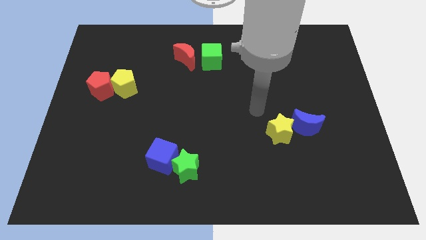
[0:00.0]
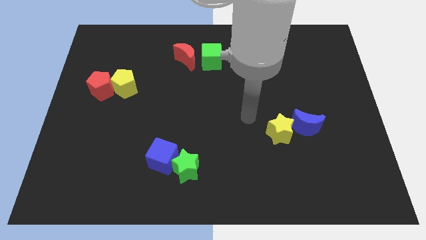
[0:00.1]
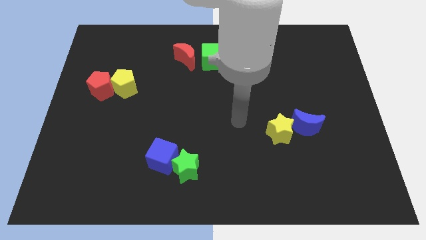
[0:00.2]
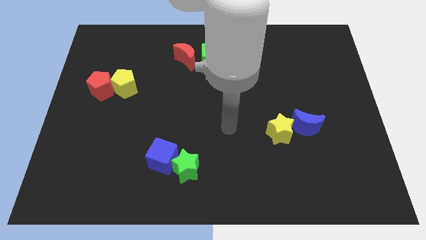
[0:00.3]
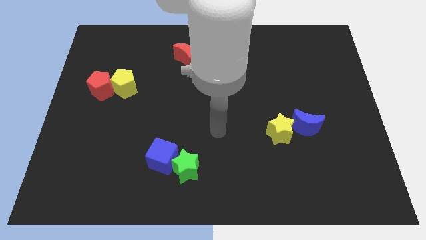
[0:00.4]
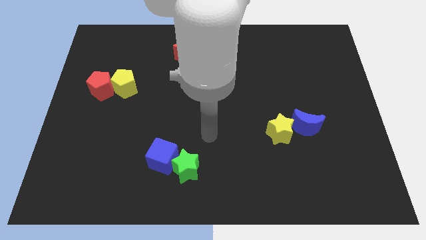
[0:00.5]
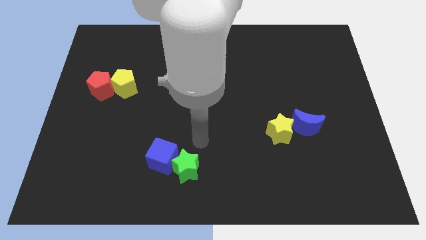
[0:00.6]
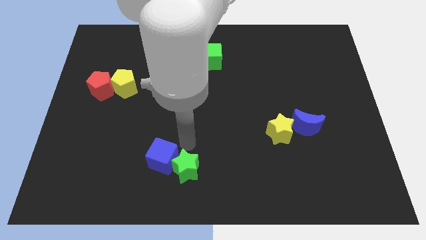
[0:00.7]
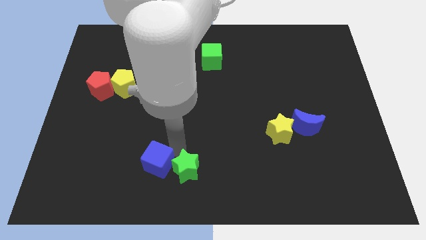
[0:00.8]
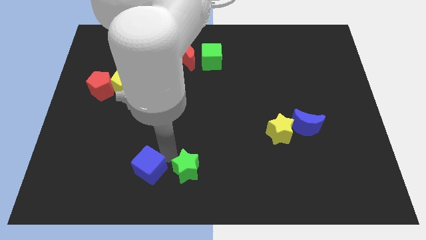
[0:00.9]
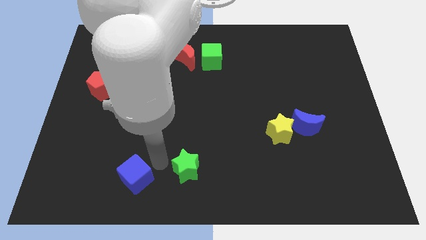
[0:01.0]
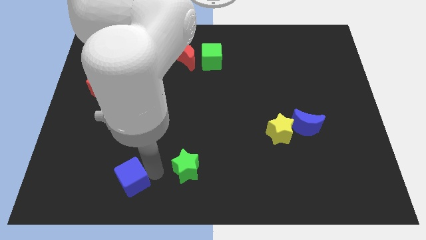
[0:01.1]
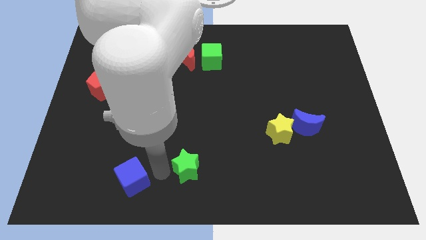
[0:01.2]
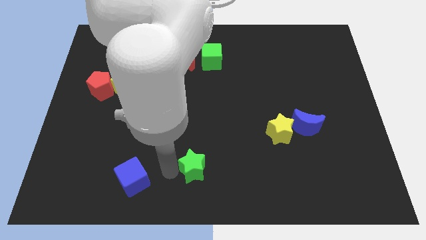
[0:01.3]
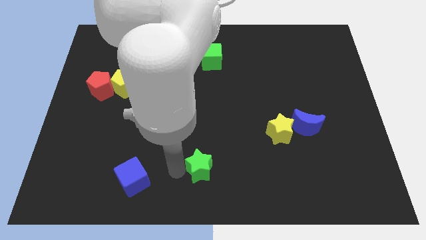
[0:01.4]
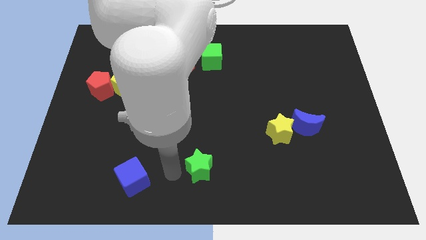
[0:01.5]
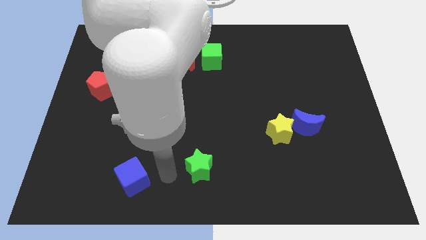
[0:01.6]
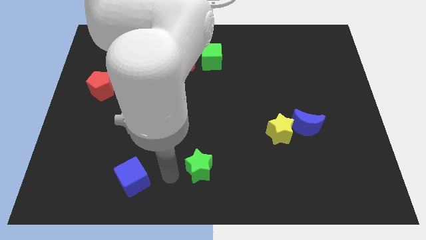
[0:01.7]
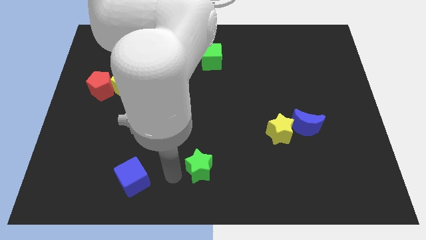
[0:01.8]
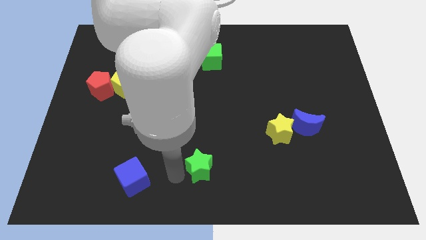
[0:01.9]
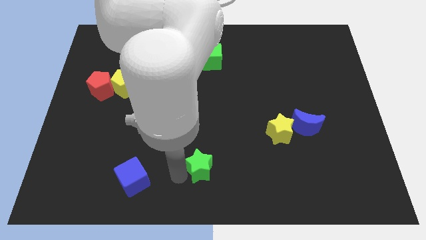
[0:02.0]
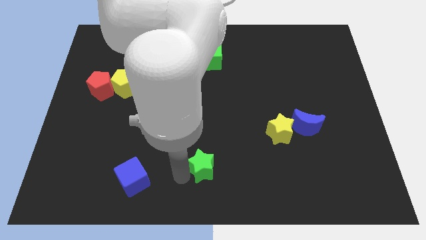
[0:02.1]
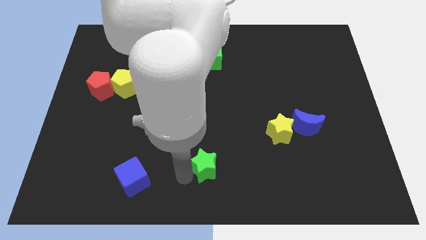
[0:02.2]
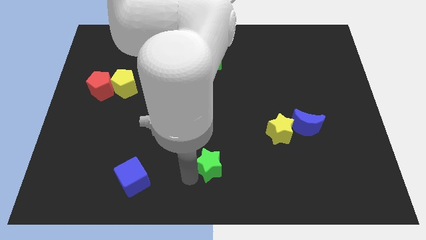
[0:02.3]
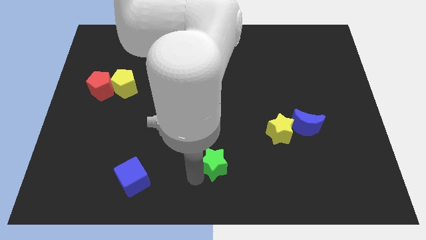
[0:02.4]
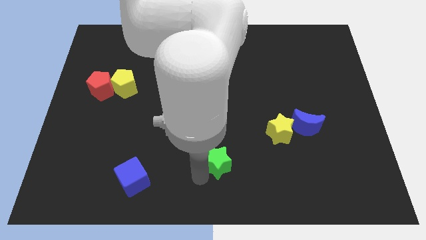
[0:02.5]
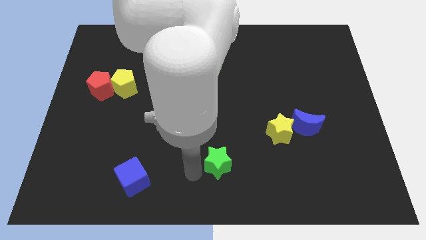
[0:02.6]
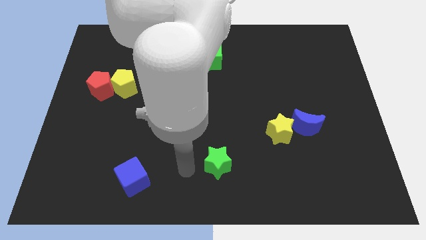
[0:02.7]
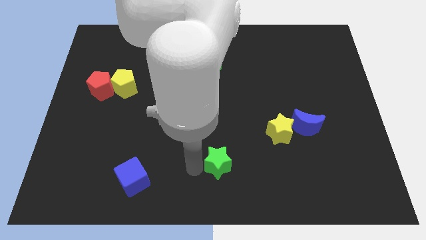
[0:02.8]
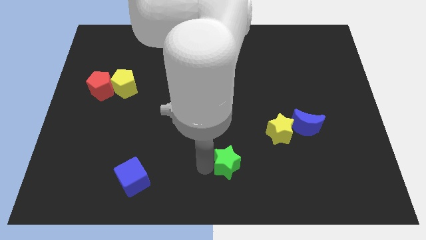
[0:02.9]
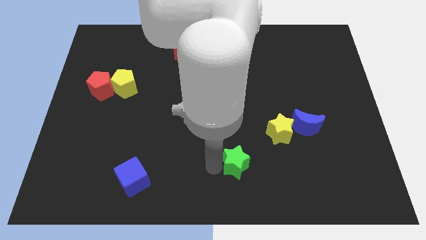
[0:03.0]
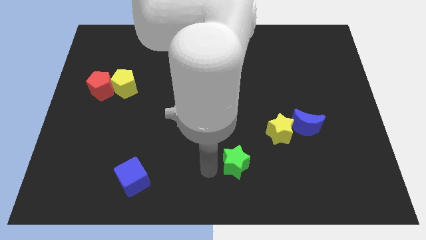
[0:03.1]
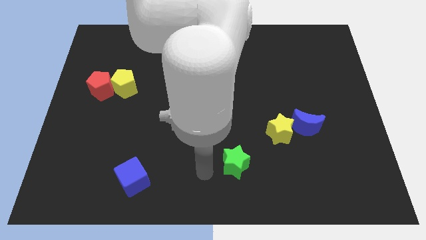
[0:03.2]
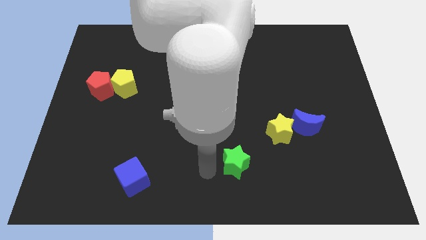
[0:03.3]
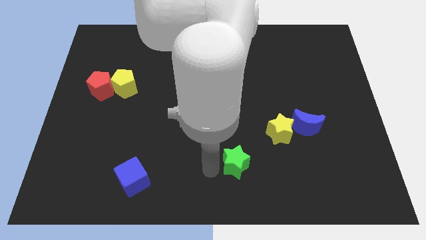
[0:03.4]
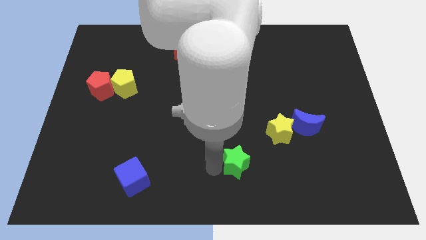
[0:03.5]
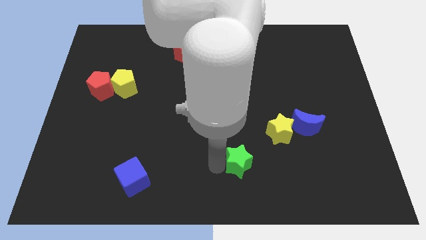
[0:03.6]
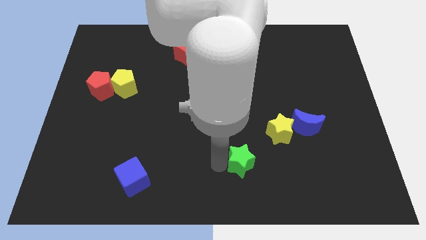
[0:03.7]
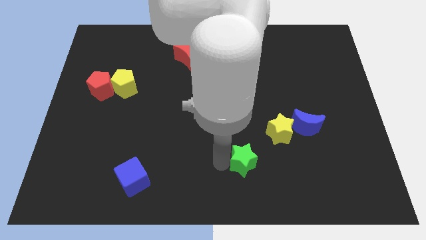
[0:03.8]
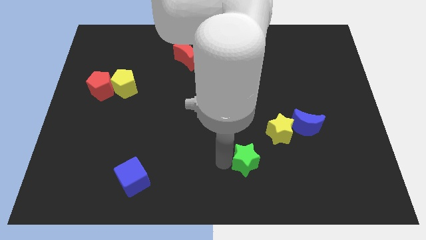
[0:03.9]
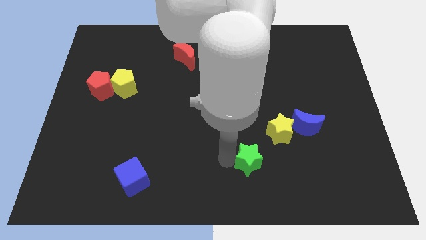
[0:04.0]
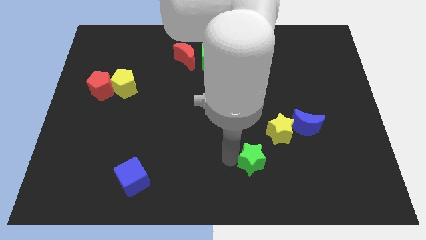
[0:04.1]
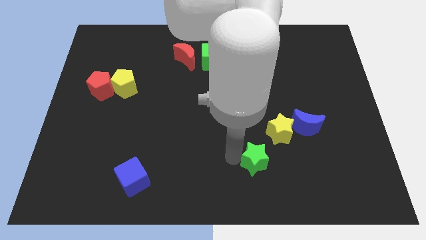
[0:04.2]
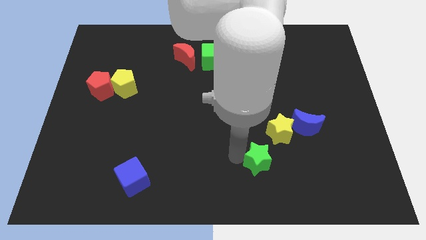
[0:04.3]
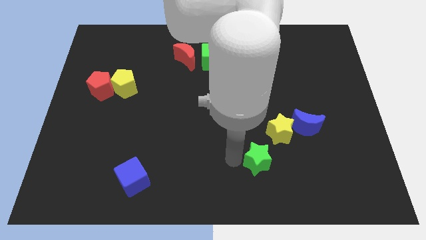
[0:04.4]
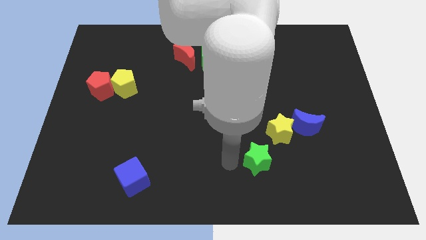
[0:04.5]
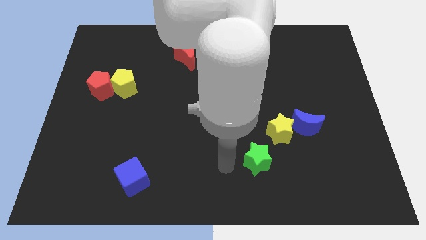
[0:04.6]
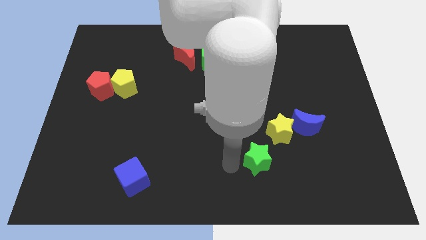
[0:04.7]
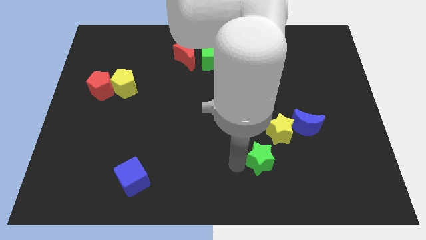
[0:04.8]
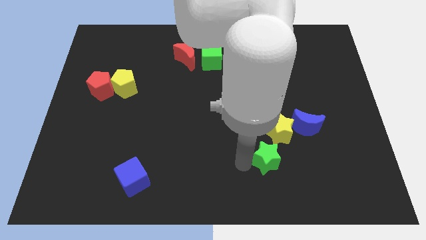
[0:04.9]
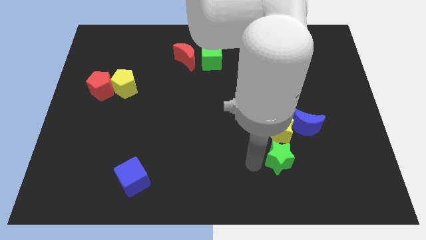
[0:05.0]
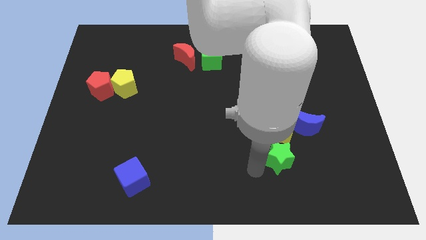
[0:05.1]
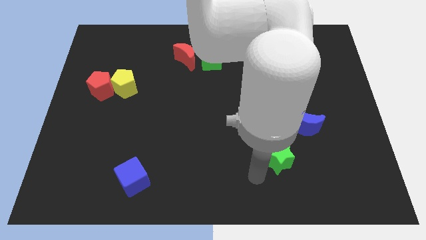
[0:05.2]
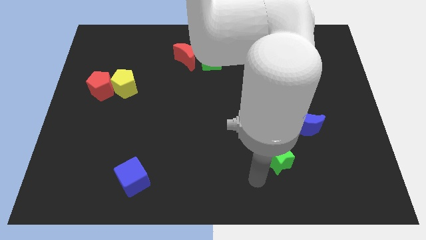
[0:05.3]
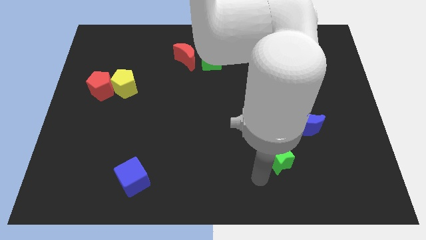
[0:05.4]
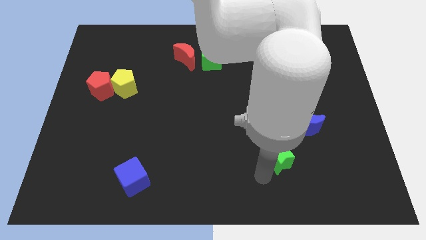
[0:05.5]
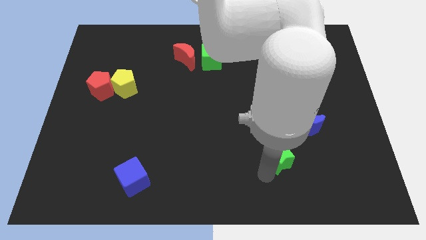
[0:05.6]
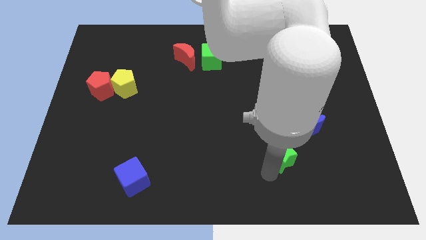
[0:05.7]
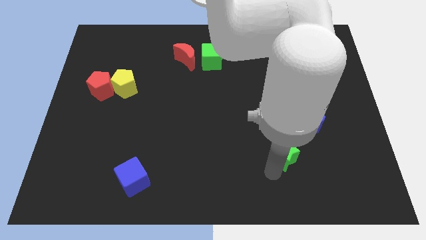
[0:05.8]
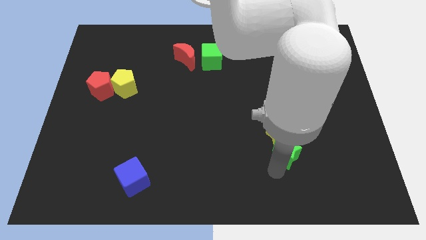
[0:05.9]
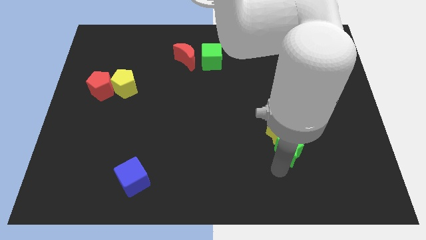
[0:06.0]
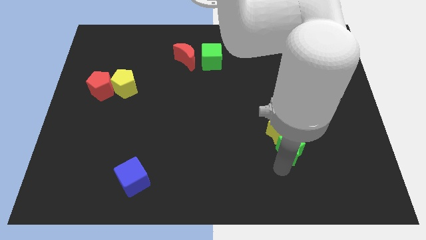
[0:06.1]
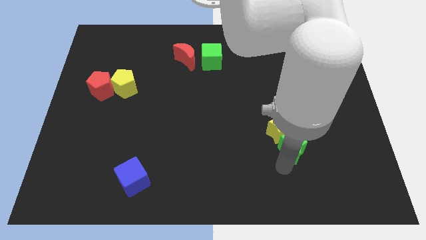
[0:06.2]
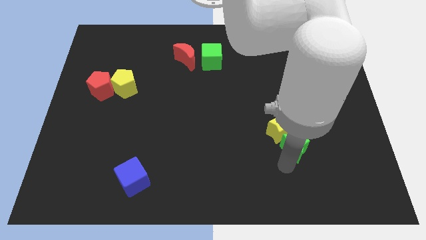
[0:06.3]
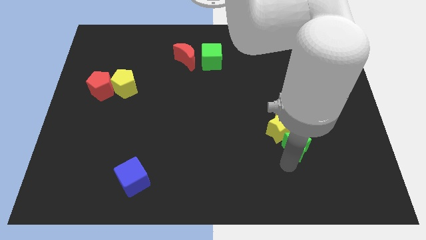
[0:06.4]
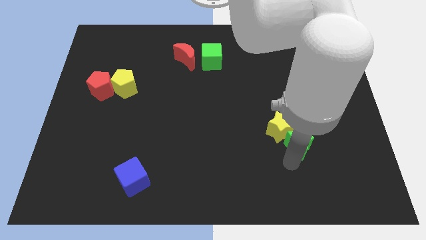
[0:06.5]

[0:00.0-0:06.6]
move the green star close to the blue moon

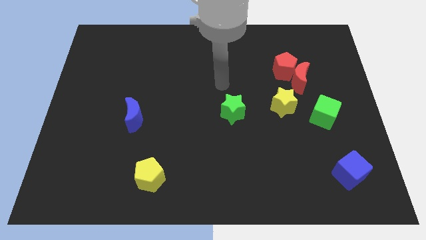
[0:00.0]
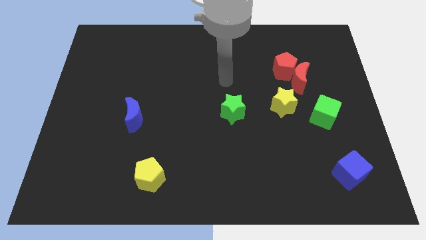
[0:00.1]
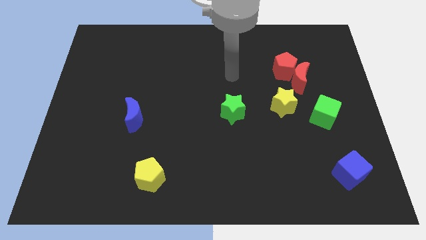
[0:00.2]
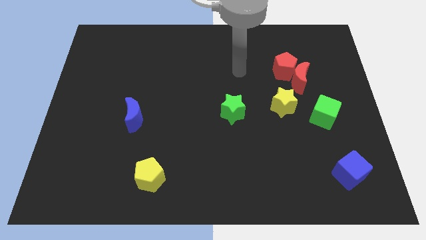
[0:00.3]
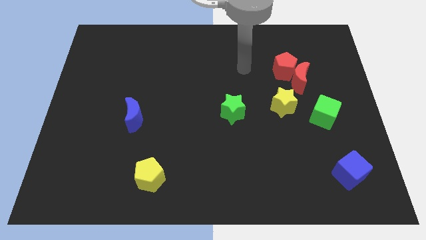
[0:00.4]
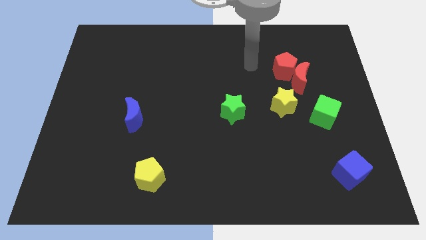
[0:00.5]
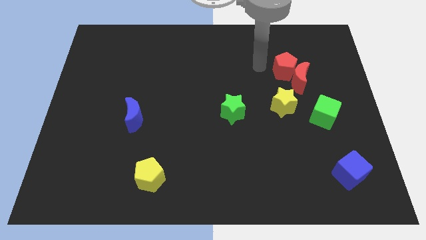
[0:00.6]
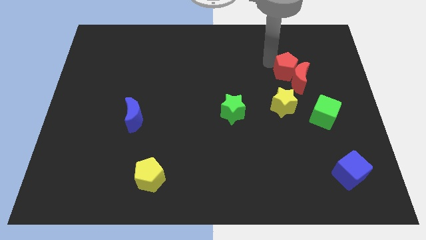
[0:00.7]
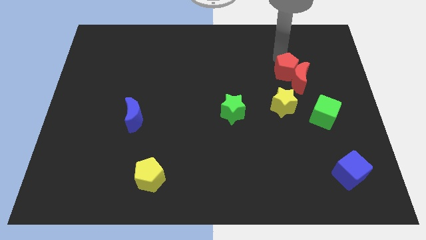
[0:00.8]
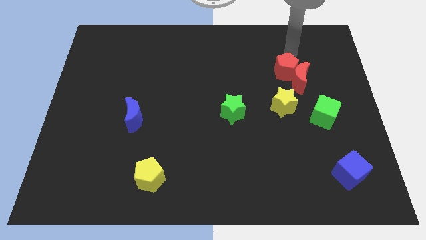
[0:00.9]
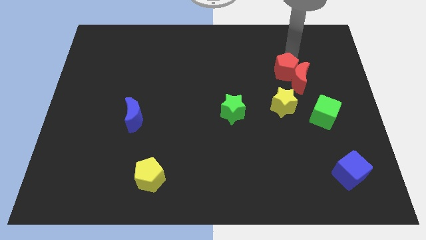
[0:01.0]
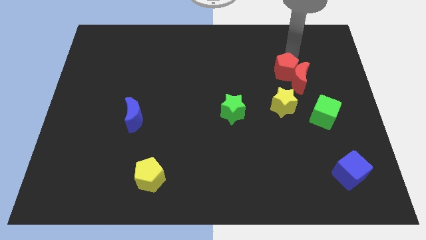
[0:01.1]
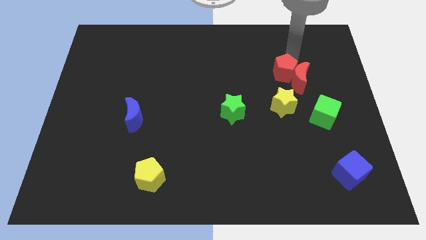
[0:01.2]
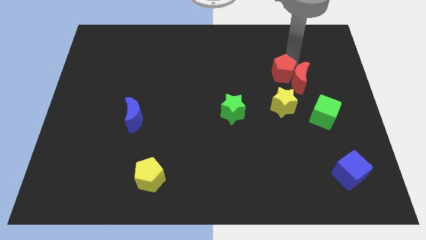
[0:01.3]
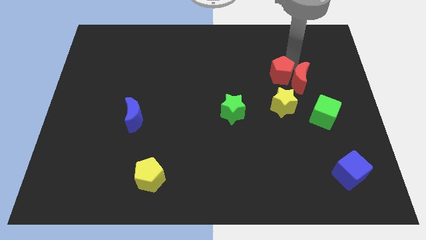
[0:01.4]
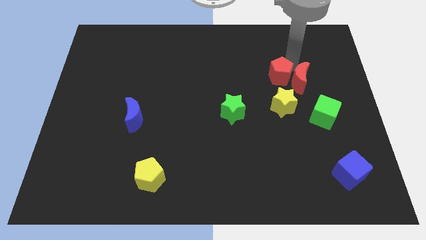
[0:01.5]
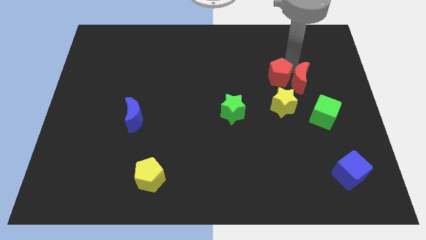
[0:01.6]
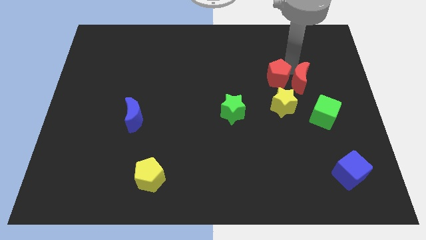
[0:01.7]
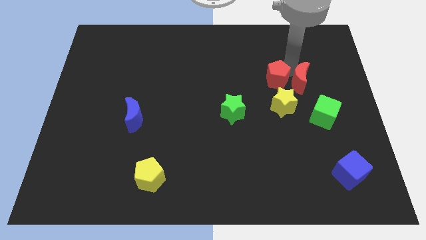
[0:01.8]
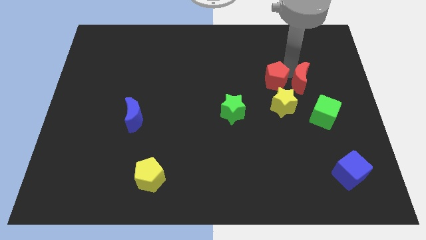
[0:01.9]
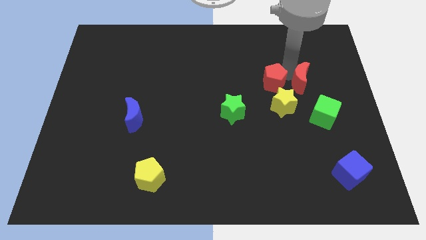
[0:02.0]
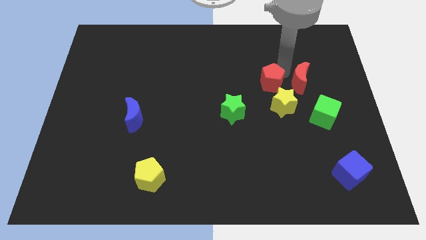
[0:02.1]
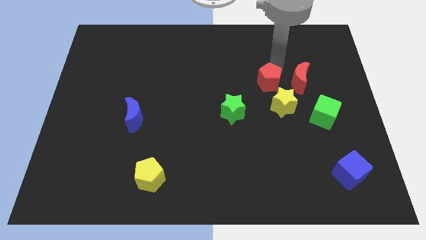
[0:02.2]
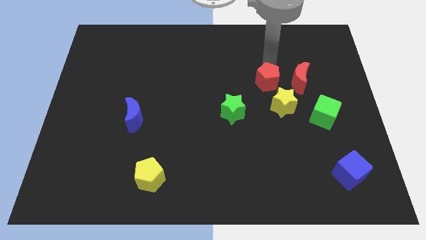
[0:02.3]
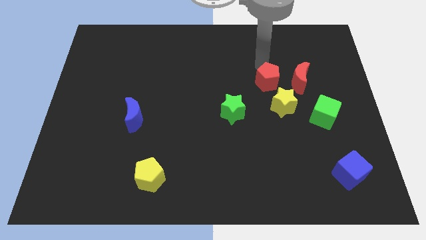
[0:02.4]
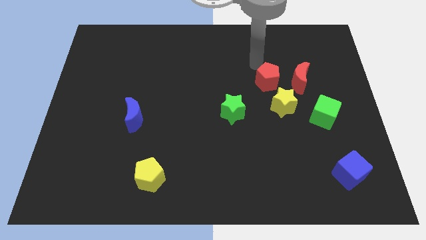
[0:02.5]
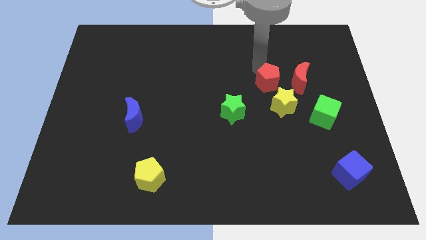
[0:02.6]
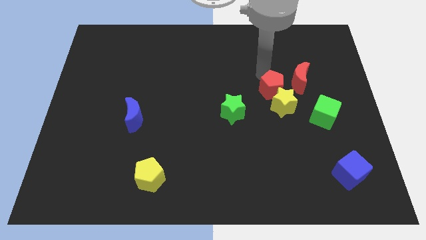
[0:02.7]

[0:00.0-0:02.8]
put the red pentagon next to the yellow star
